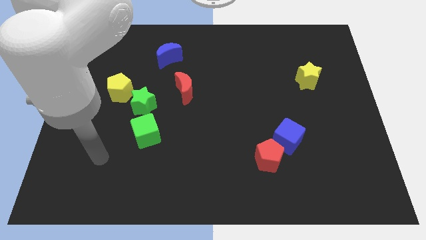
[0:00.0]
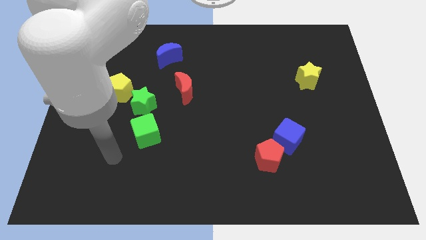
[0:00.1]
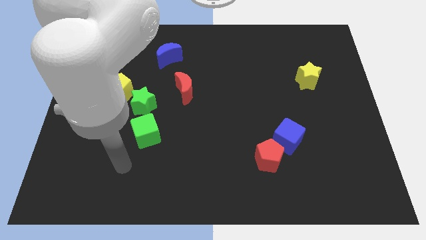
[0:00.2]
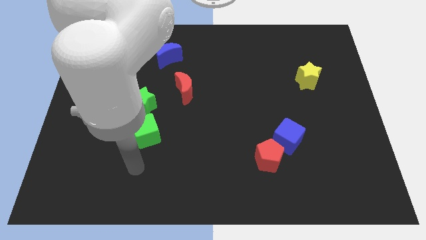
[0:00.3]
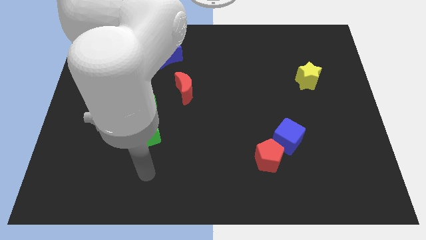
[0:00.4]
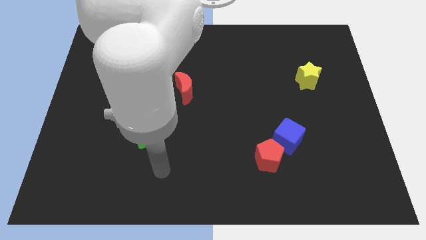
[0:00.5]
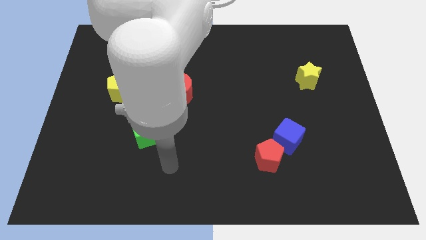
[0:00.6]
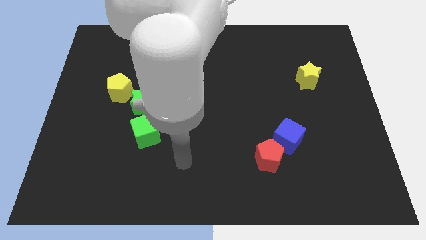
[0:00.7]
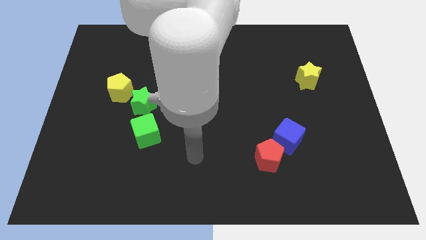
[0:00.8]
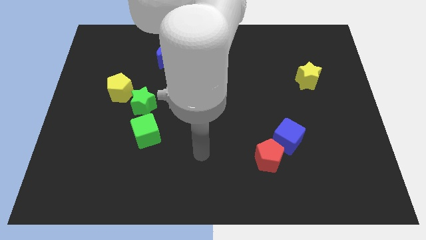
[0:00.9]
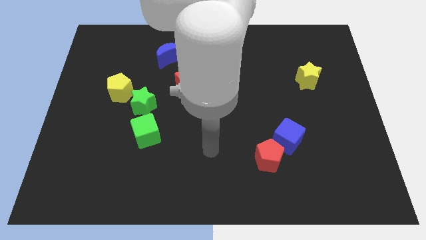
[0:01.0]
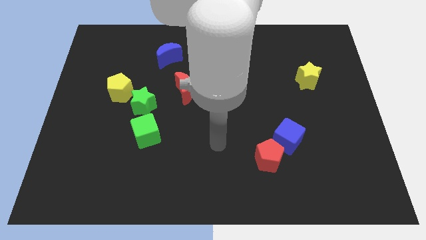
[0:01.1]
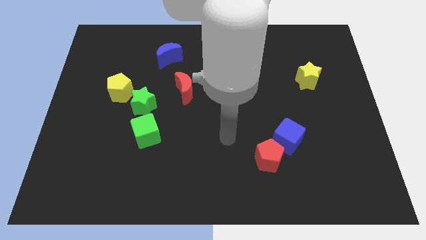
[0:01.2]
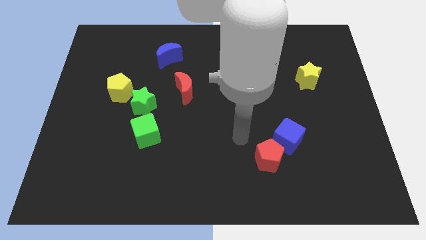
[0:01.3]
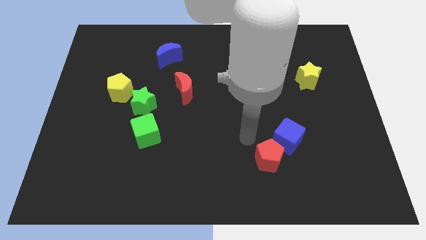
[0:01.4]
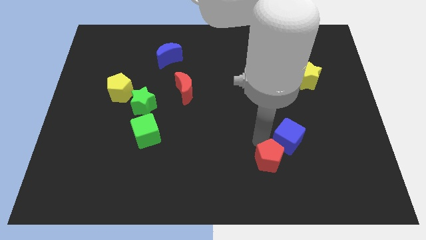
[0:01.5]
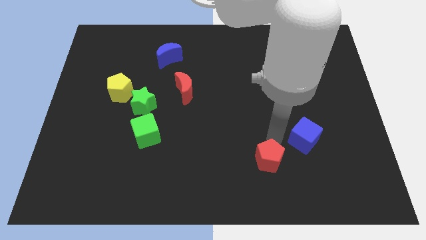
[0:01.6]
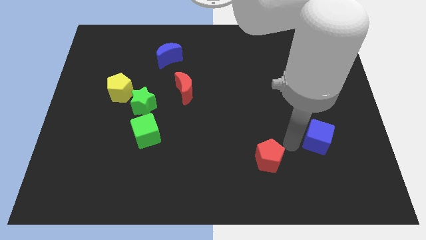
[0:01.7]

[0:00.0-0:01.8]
move the red pentagon away from the blue cube

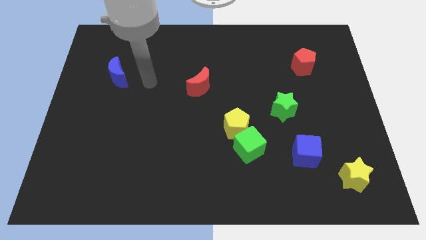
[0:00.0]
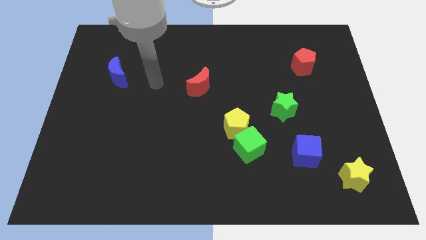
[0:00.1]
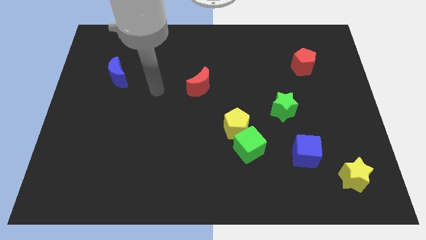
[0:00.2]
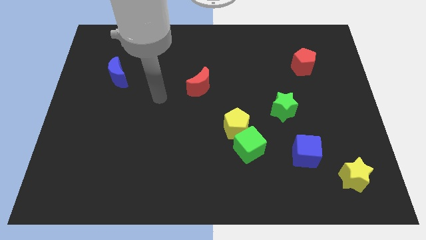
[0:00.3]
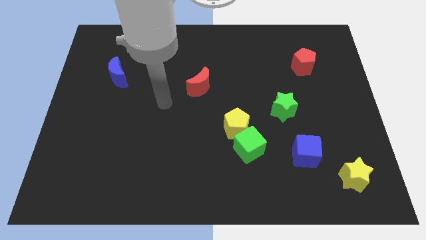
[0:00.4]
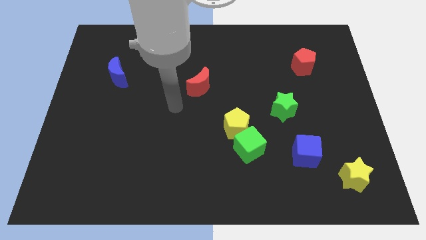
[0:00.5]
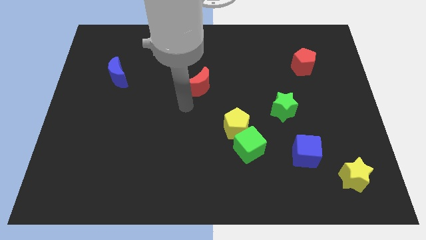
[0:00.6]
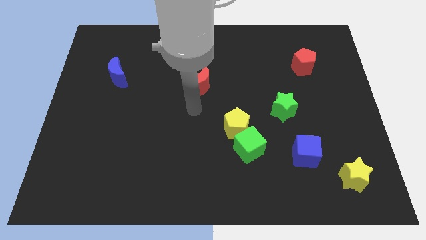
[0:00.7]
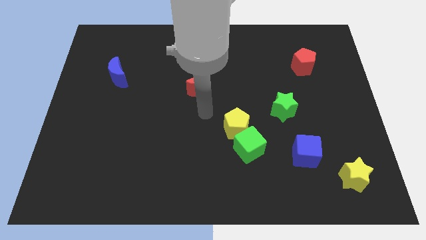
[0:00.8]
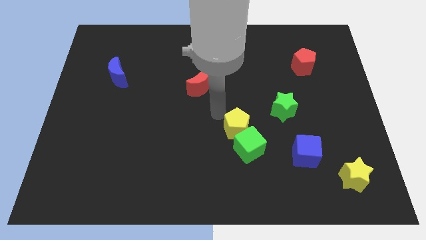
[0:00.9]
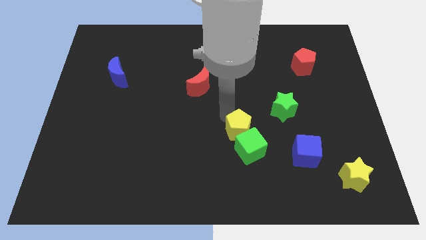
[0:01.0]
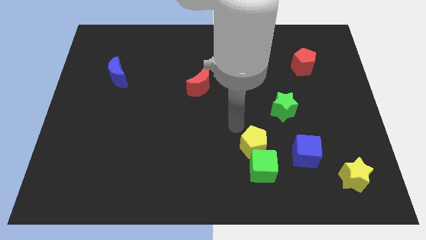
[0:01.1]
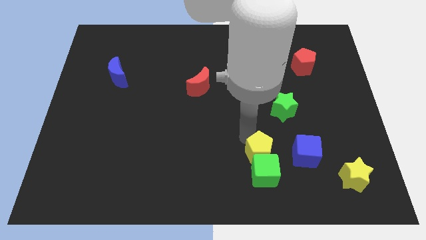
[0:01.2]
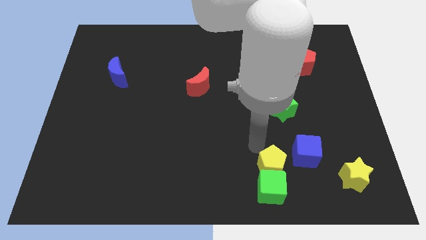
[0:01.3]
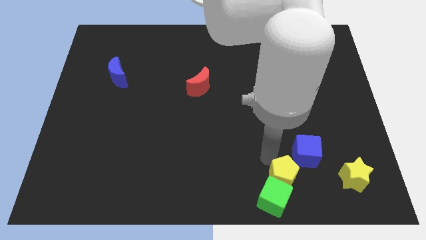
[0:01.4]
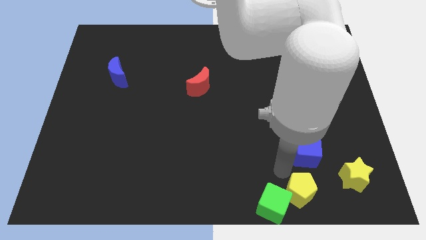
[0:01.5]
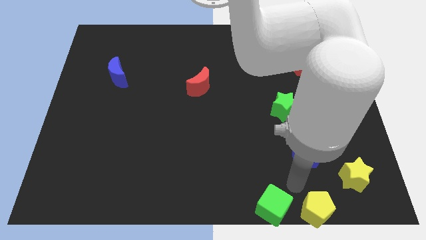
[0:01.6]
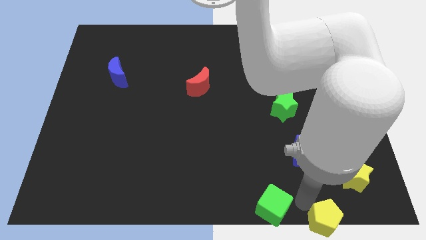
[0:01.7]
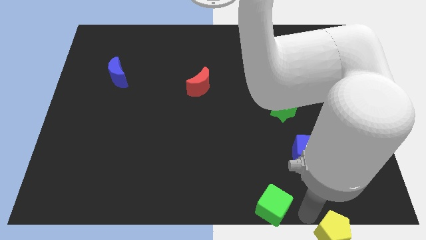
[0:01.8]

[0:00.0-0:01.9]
move the green cube away from the yellow pentagon

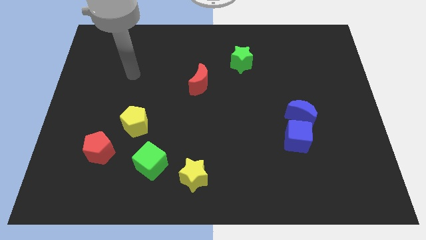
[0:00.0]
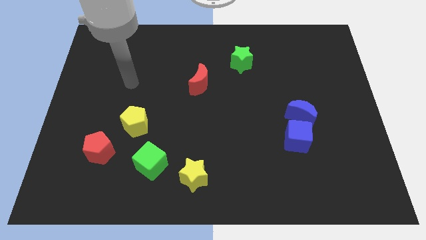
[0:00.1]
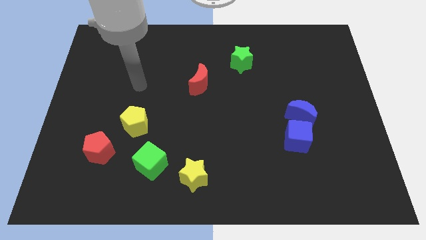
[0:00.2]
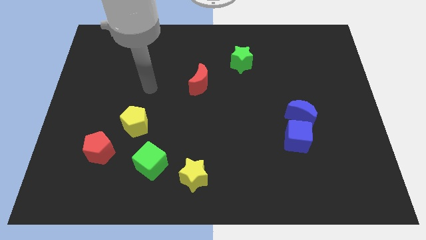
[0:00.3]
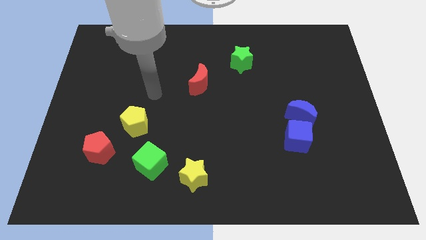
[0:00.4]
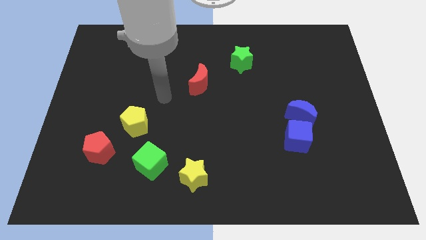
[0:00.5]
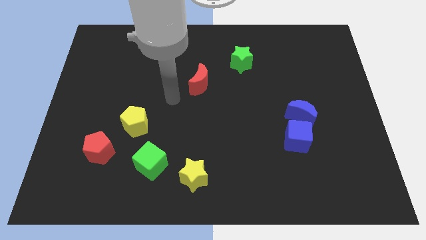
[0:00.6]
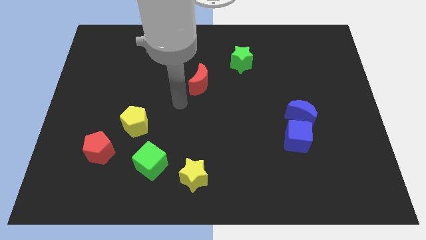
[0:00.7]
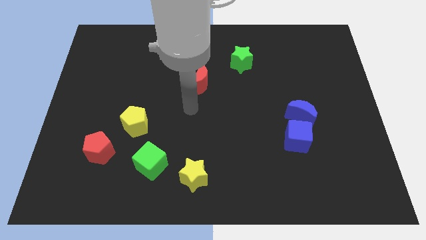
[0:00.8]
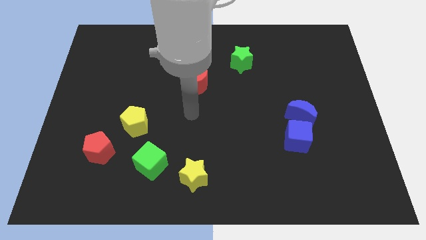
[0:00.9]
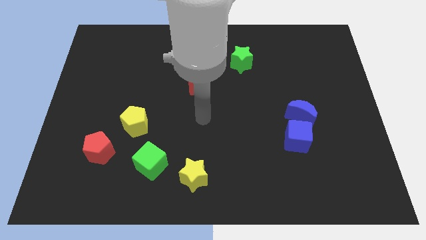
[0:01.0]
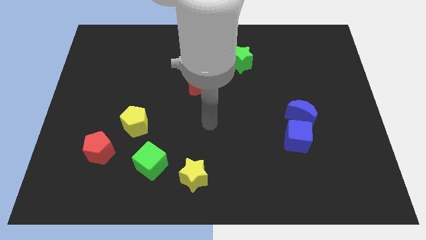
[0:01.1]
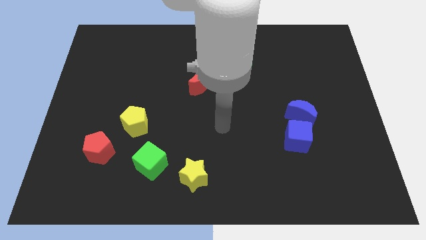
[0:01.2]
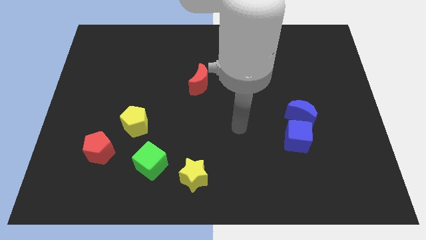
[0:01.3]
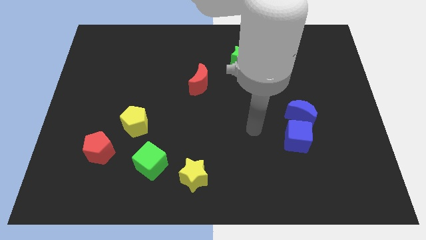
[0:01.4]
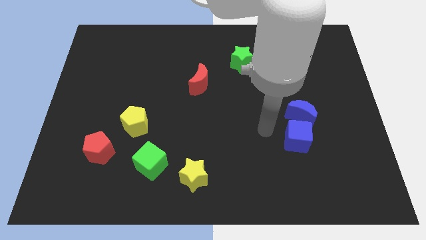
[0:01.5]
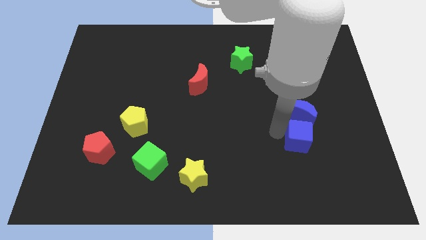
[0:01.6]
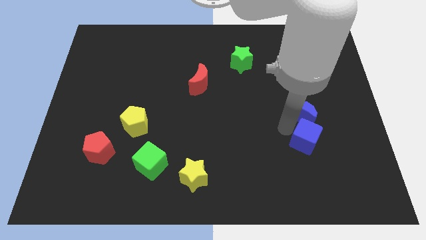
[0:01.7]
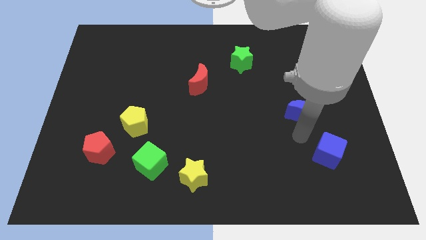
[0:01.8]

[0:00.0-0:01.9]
pull the blue moon apart from the blue cube

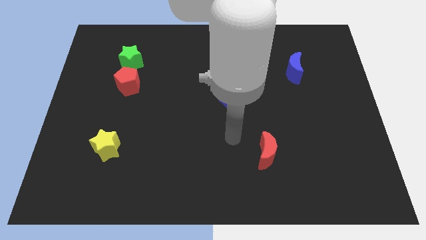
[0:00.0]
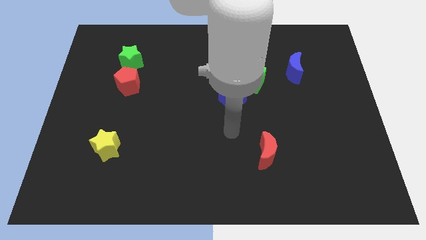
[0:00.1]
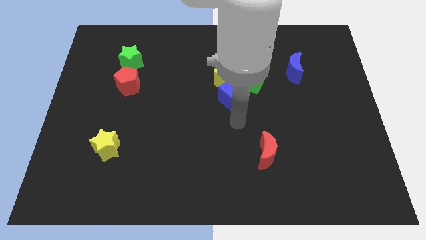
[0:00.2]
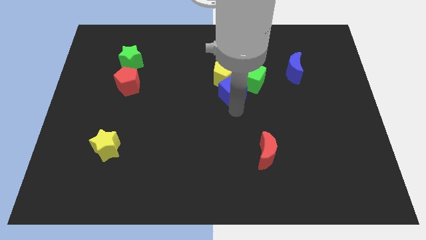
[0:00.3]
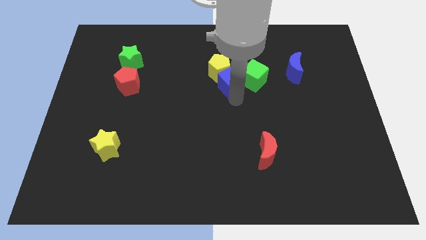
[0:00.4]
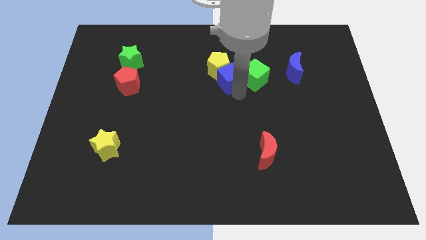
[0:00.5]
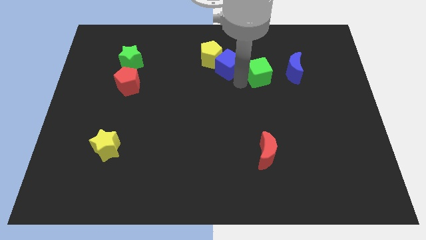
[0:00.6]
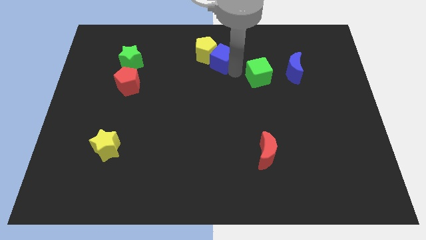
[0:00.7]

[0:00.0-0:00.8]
move the yellow pentagon away from the blue cube and green cube

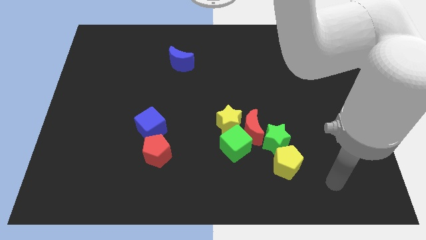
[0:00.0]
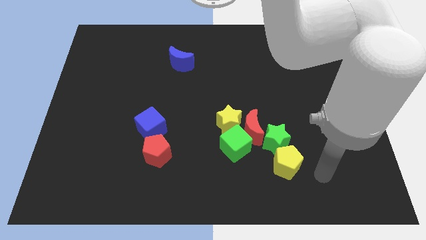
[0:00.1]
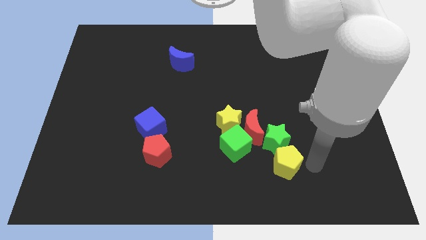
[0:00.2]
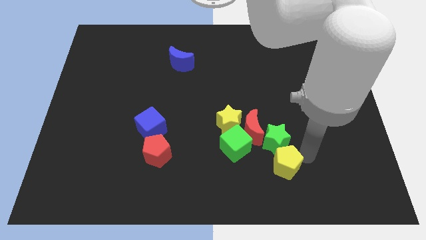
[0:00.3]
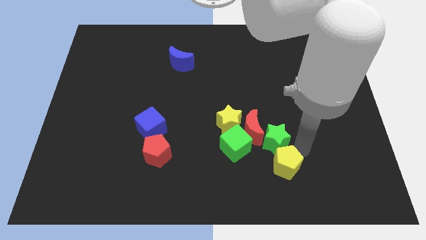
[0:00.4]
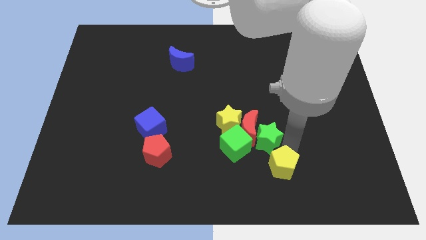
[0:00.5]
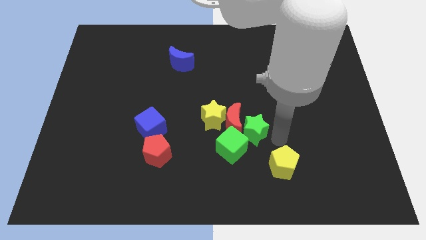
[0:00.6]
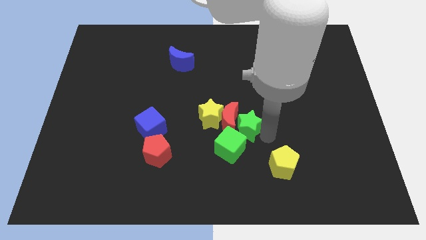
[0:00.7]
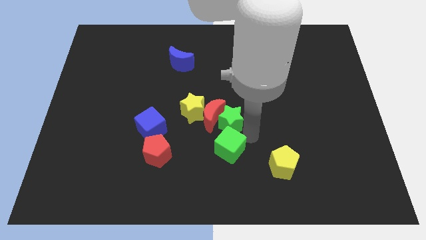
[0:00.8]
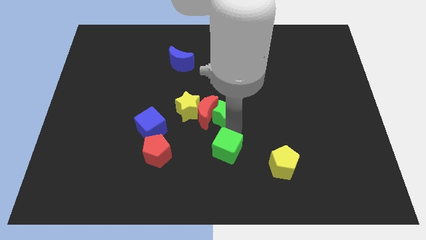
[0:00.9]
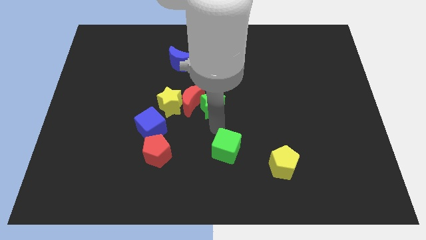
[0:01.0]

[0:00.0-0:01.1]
separate the yellow star from the red moon and green cube

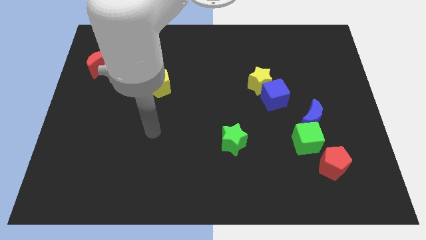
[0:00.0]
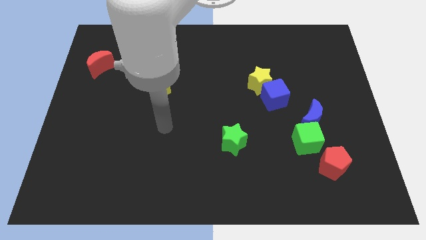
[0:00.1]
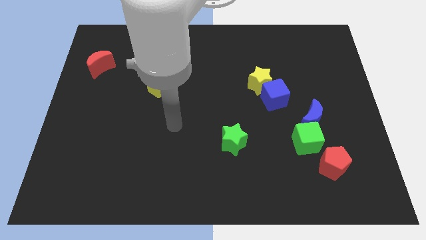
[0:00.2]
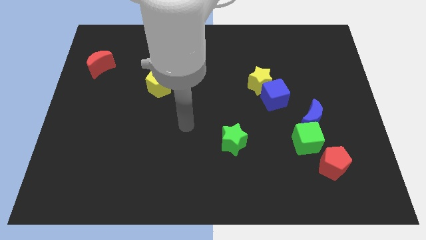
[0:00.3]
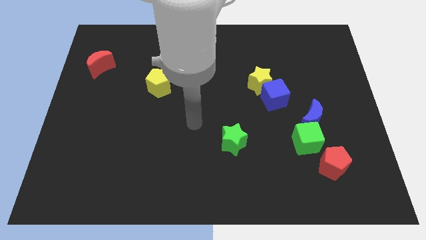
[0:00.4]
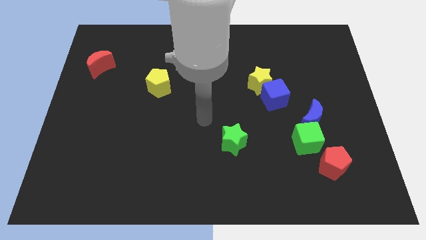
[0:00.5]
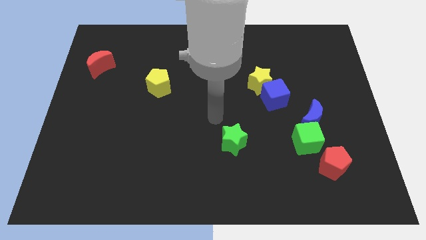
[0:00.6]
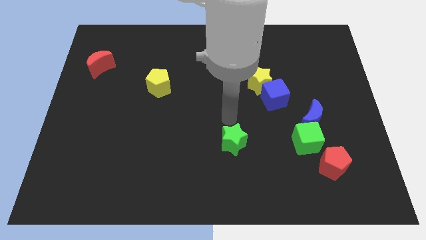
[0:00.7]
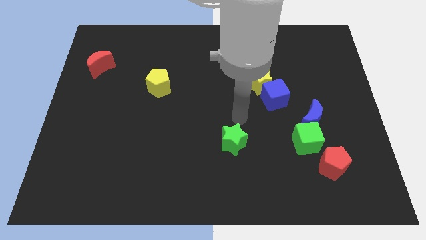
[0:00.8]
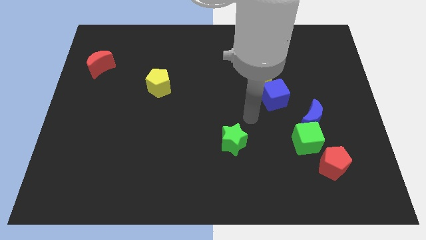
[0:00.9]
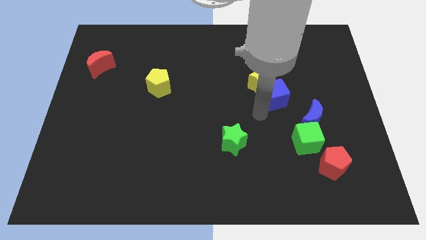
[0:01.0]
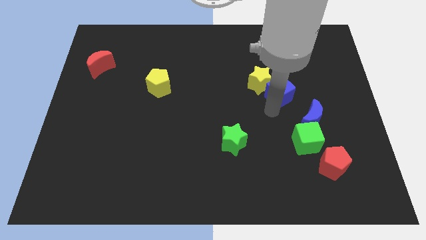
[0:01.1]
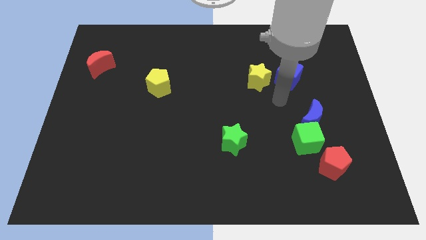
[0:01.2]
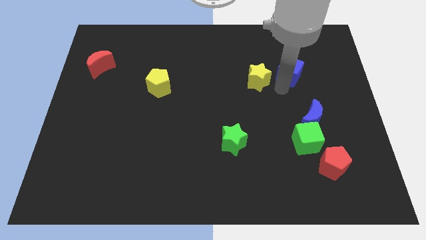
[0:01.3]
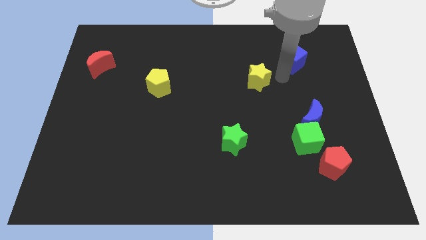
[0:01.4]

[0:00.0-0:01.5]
pull the yellow star apart from the blue cube

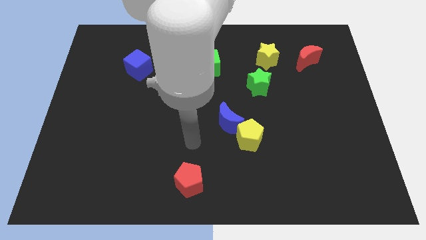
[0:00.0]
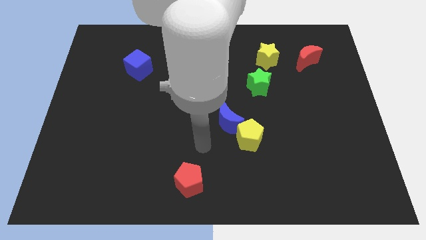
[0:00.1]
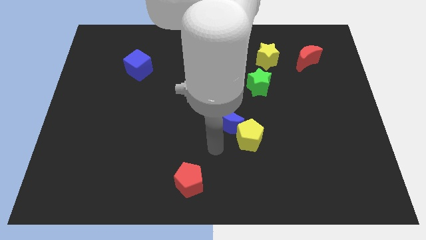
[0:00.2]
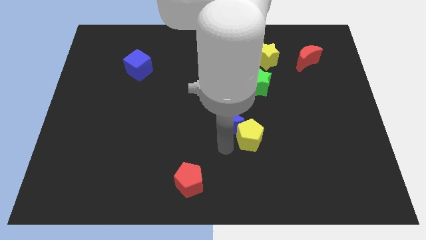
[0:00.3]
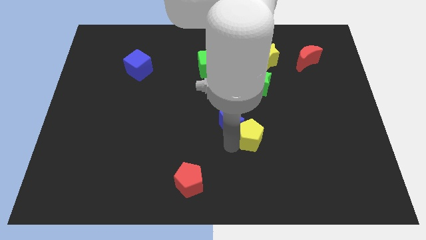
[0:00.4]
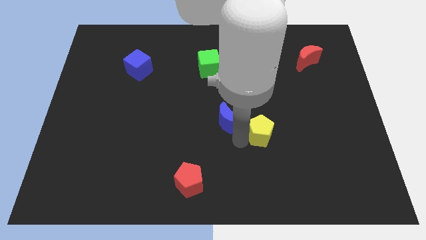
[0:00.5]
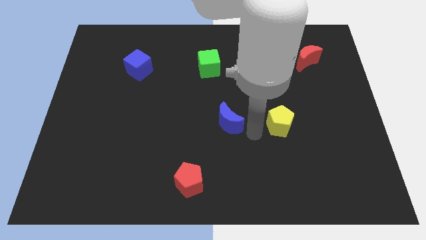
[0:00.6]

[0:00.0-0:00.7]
move the blue moon away from the yellow pentagon
